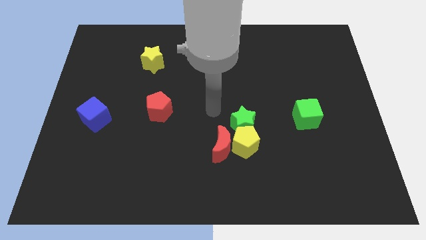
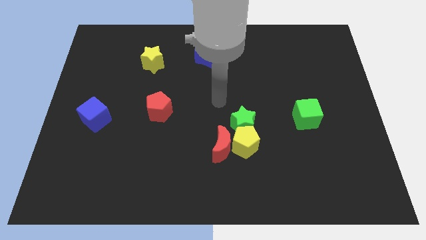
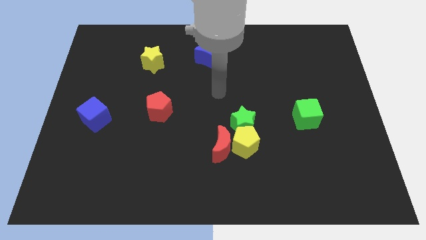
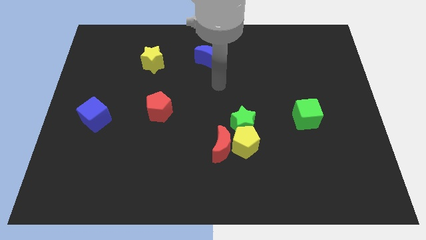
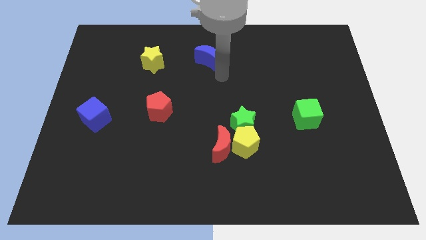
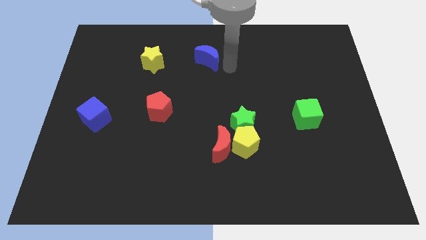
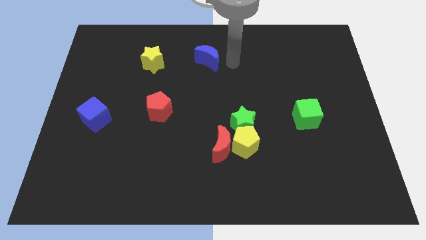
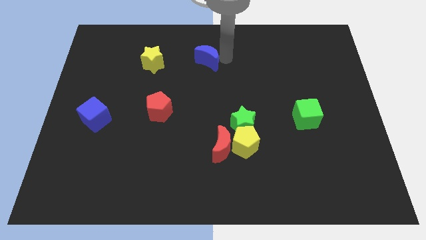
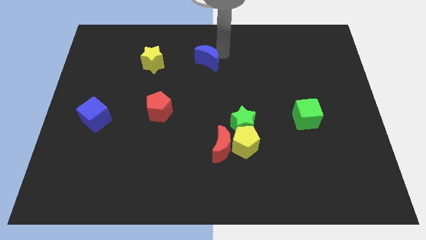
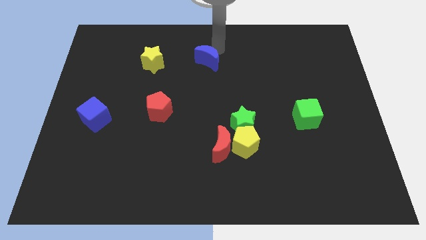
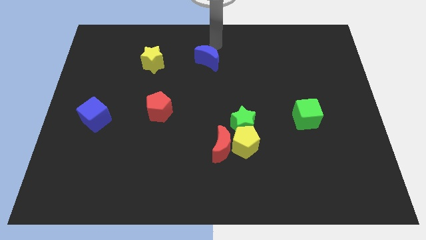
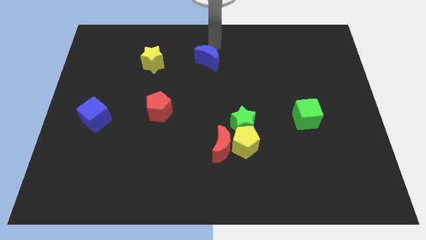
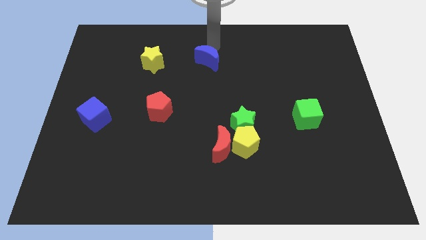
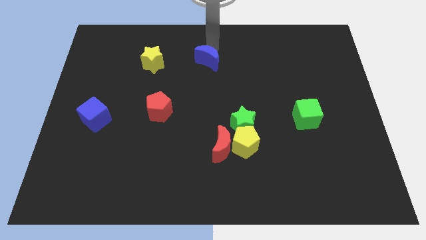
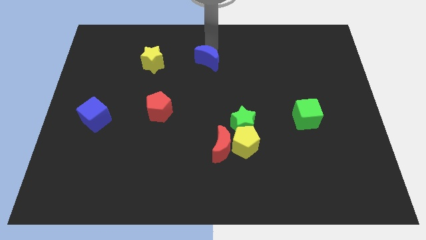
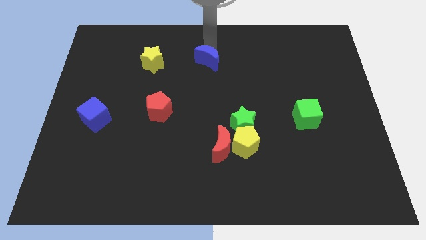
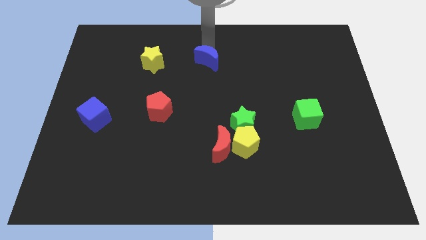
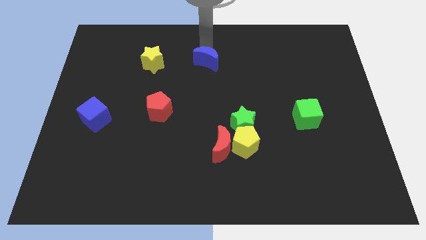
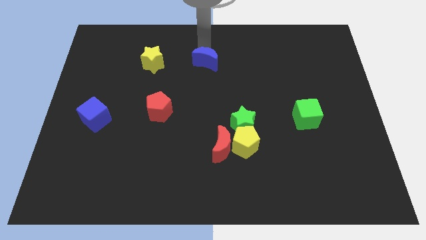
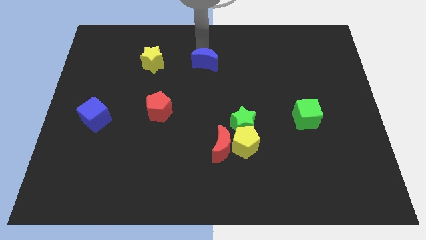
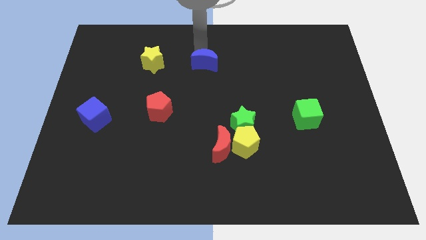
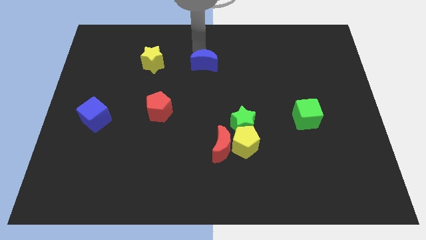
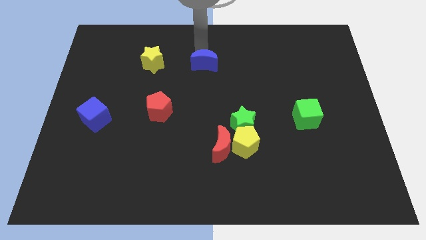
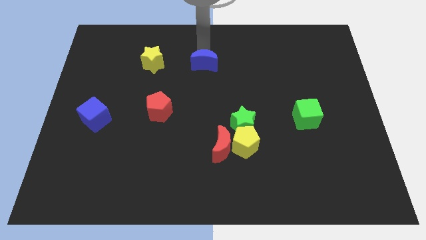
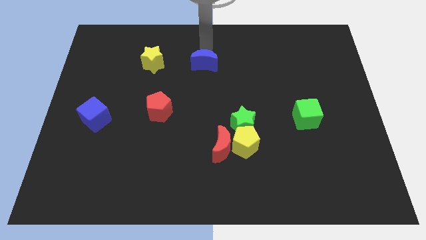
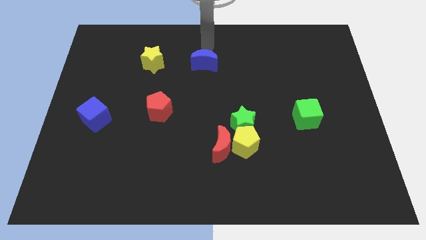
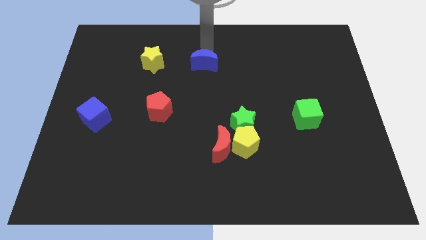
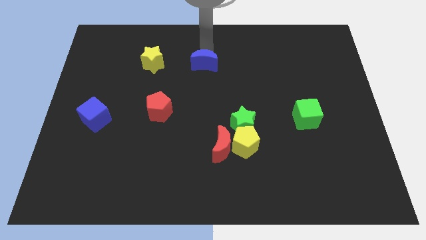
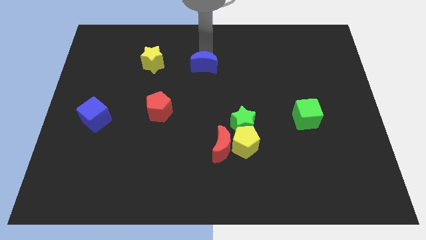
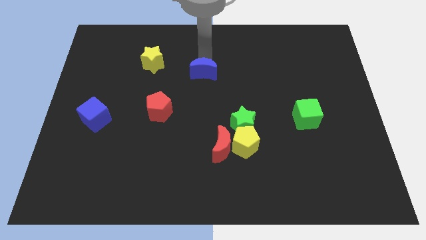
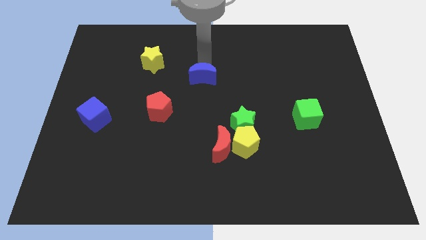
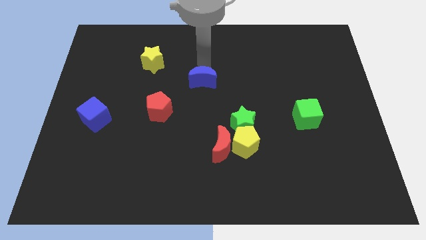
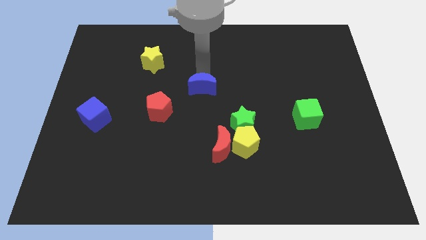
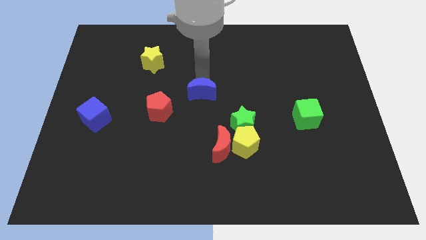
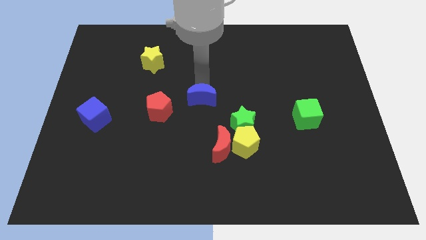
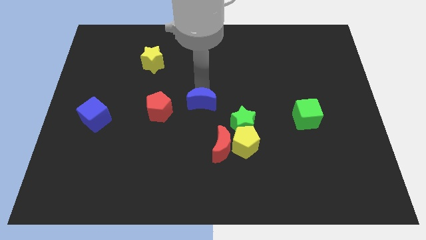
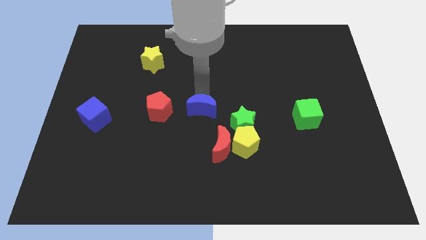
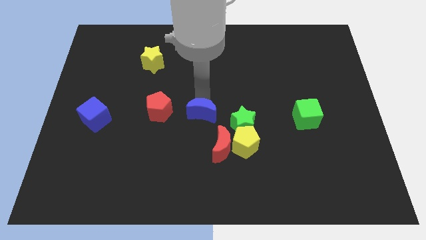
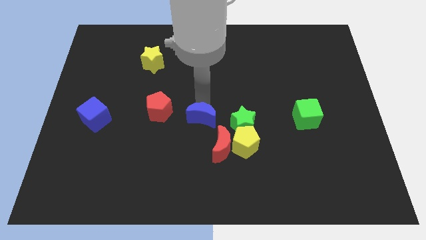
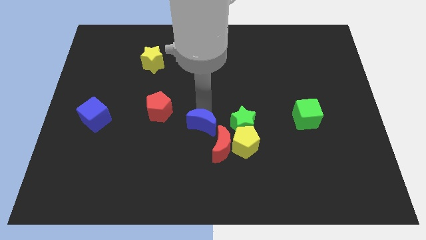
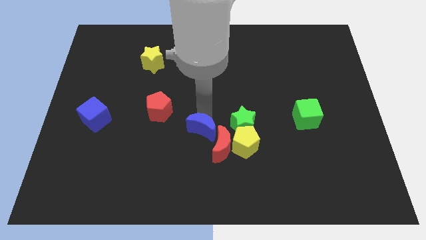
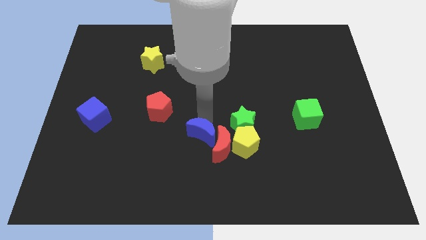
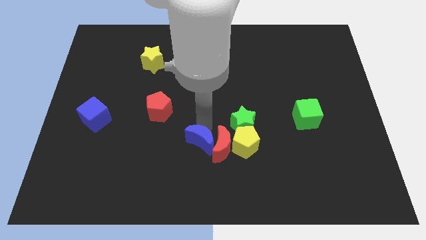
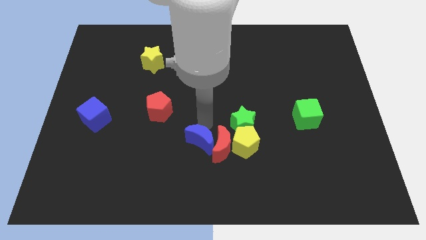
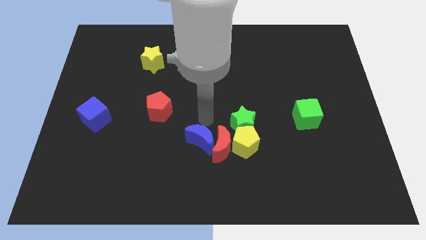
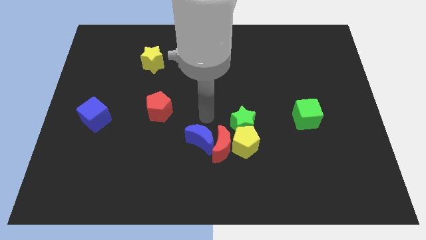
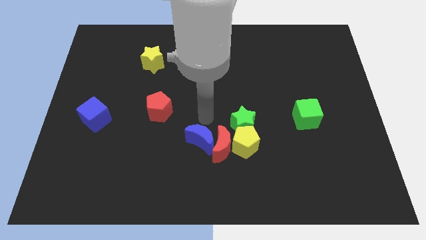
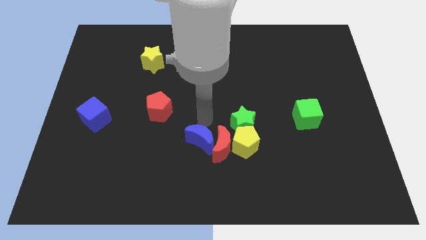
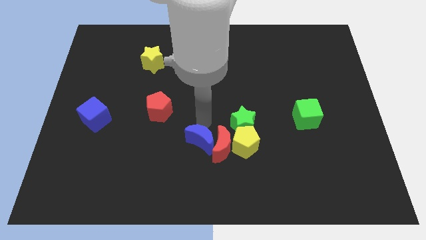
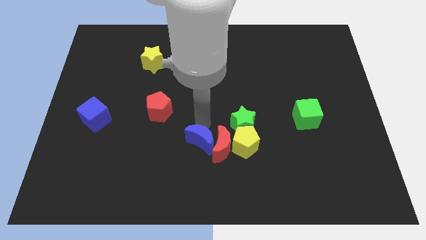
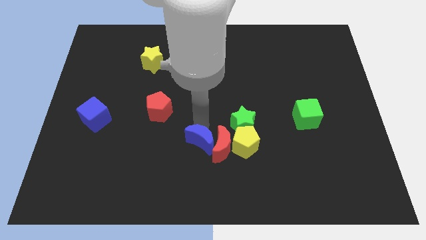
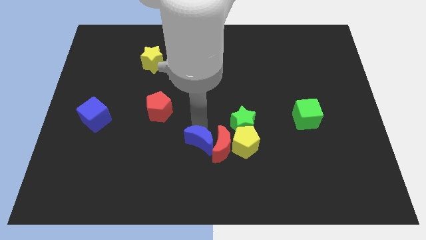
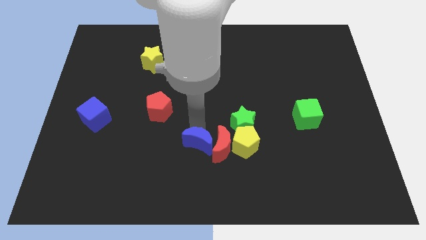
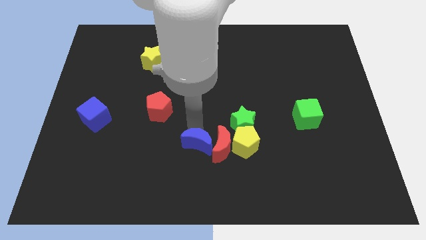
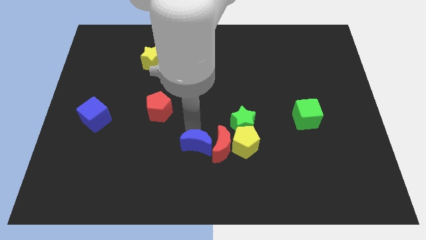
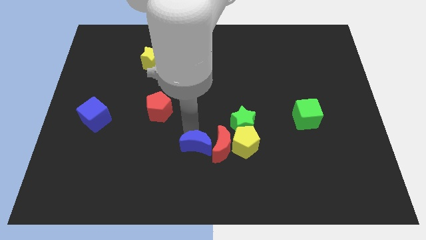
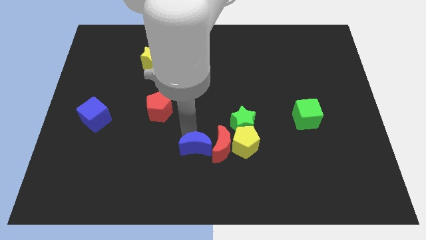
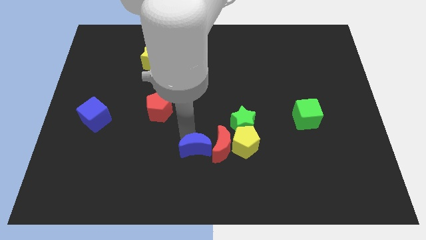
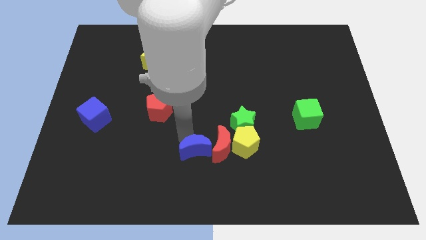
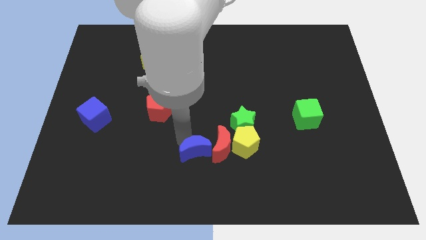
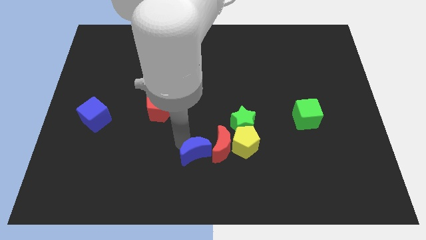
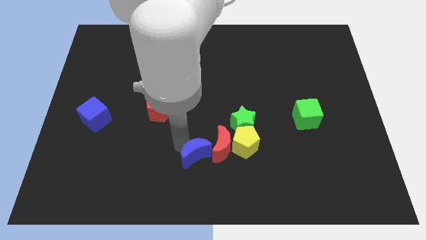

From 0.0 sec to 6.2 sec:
move the blue moon to the bottom

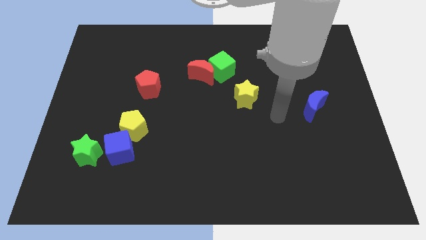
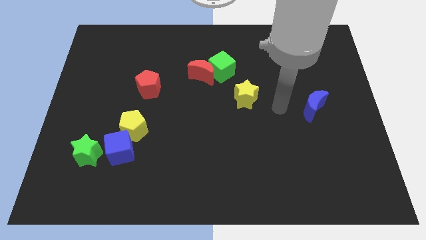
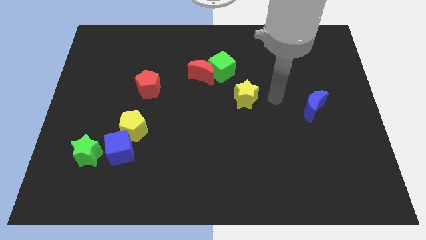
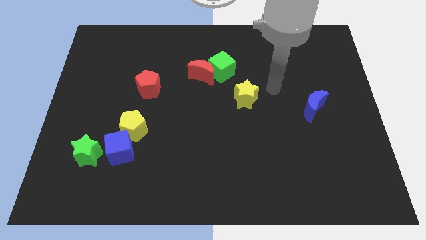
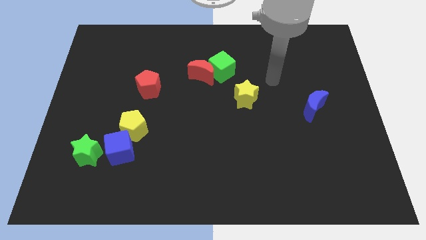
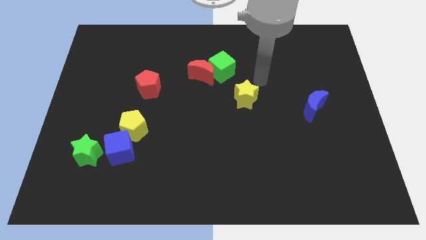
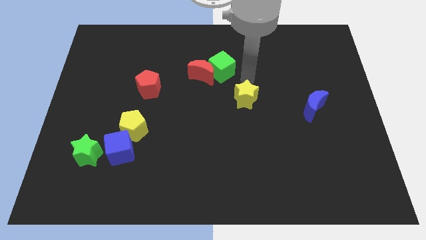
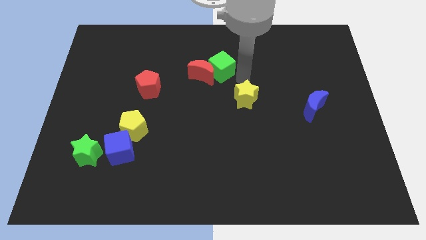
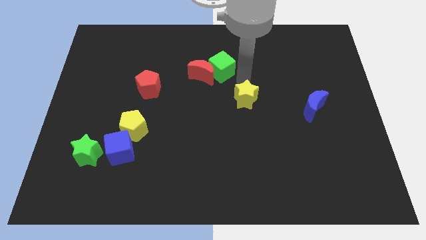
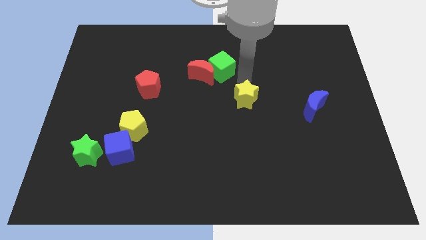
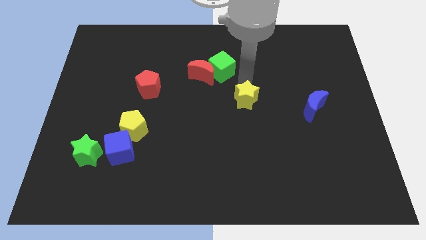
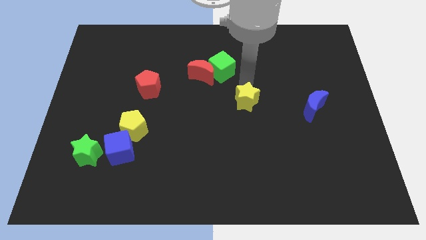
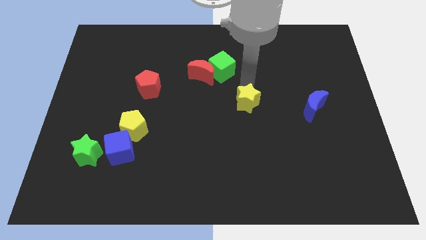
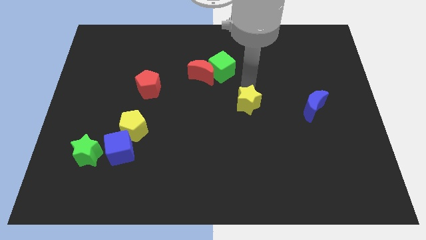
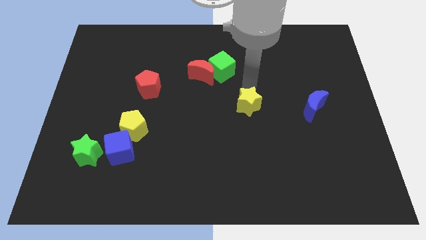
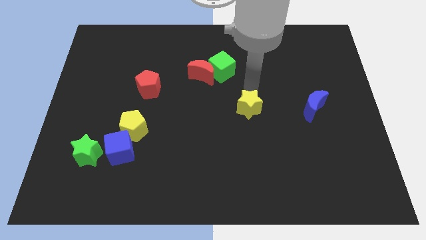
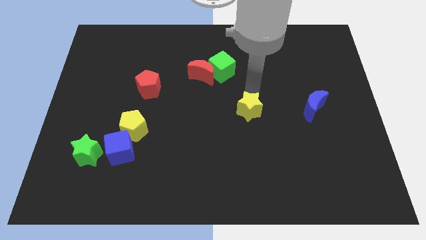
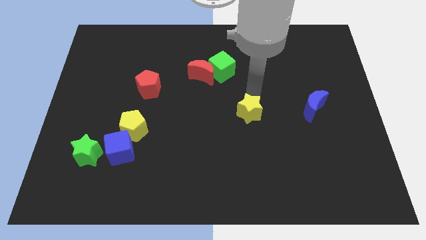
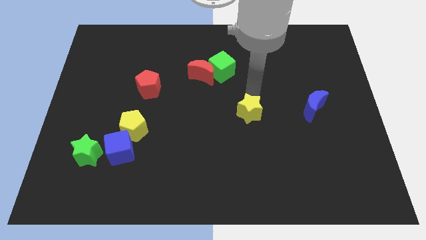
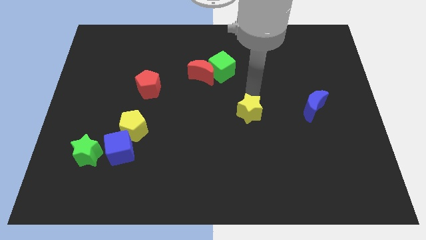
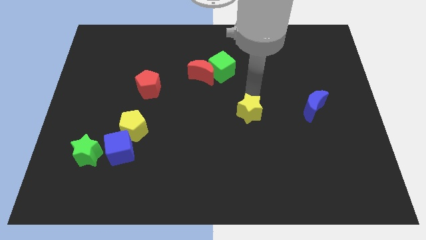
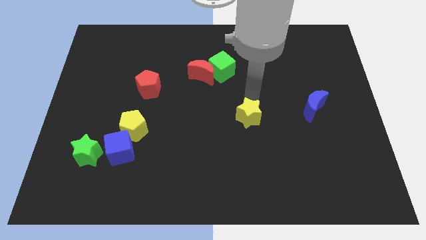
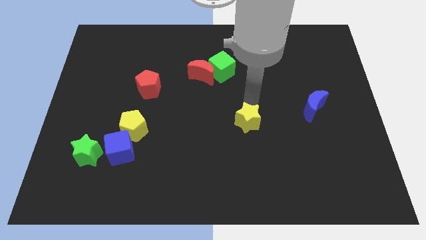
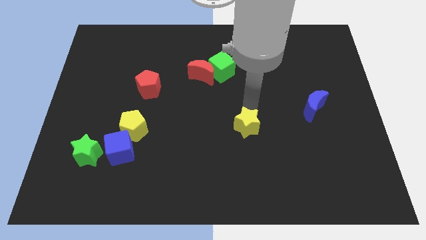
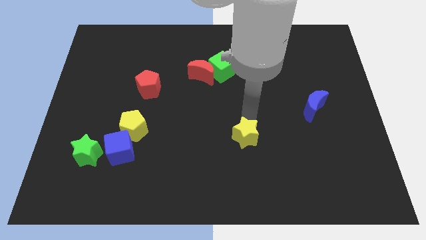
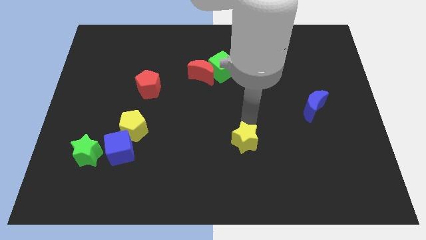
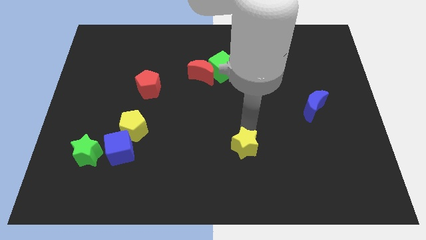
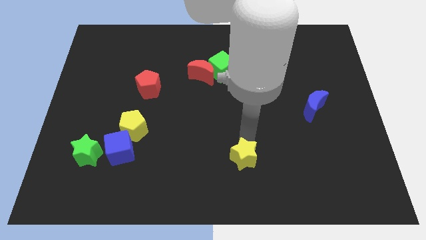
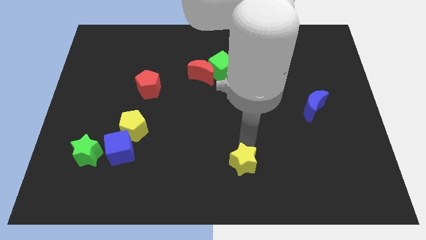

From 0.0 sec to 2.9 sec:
move the yellow star to the bottom side
